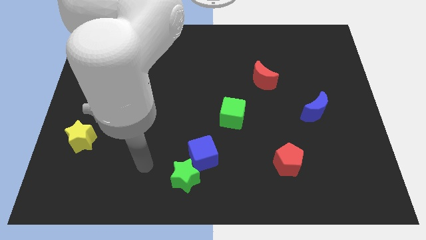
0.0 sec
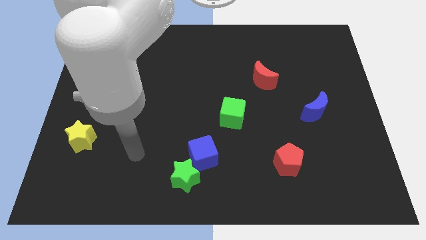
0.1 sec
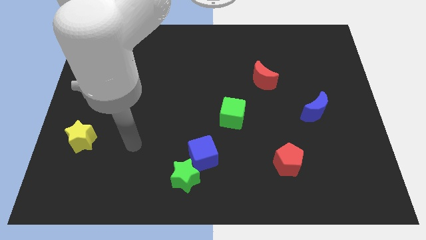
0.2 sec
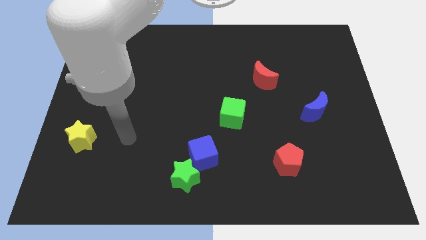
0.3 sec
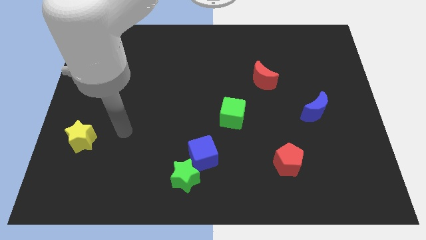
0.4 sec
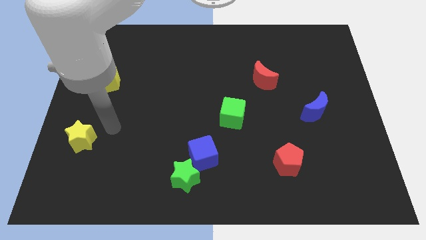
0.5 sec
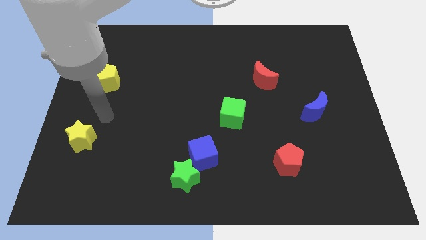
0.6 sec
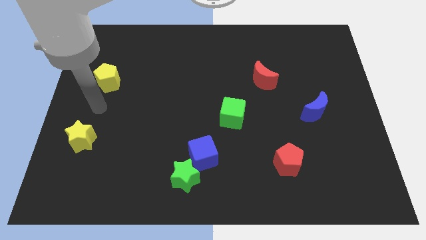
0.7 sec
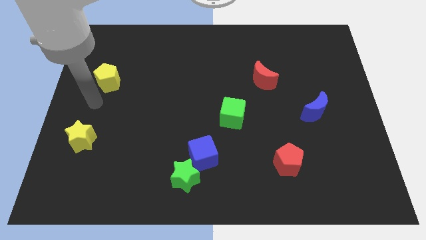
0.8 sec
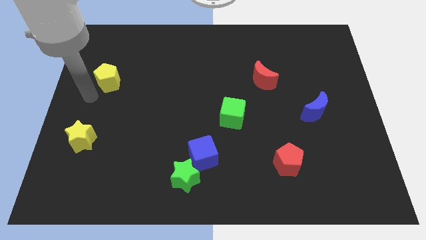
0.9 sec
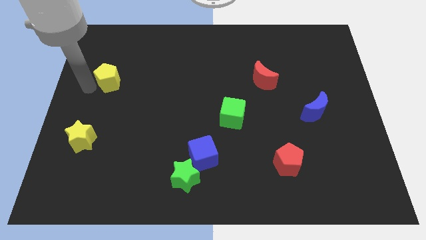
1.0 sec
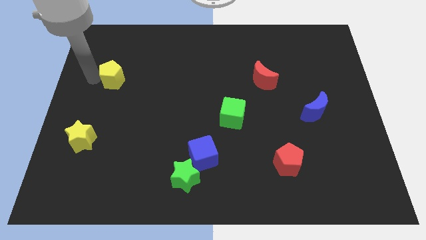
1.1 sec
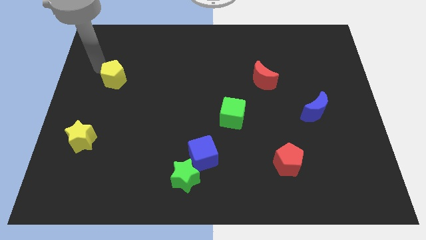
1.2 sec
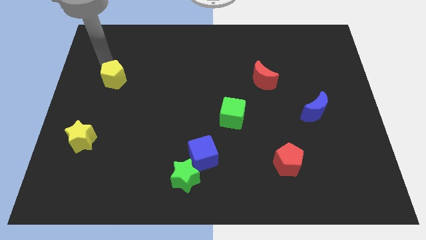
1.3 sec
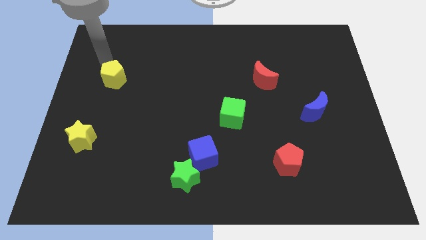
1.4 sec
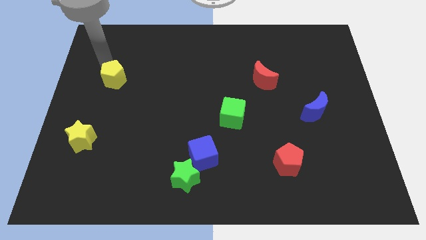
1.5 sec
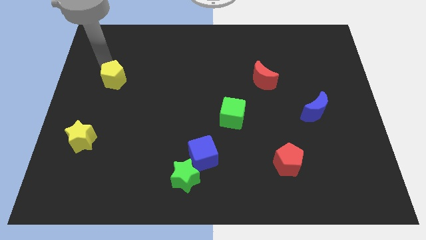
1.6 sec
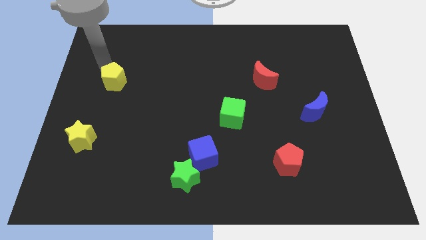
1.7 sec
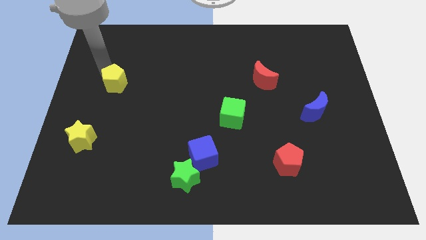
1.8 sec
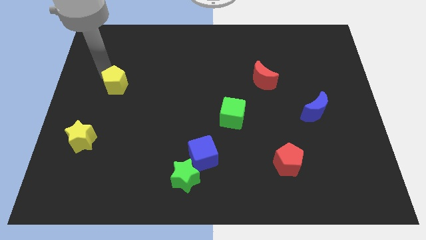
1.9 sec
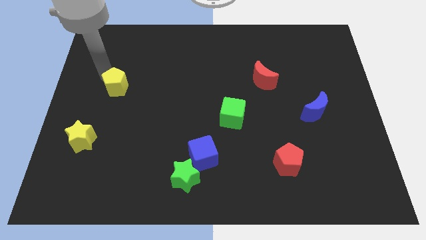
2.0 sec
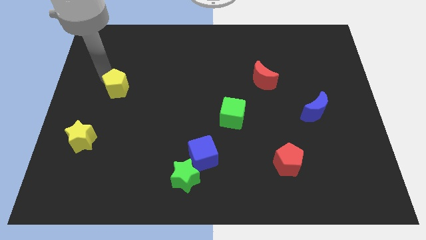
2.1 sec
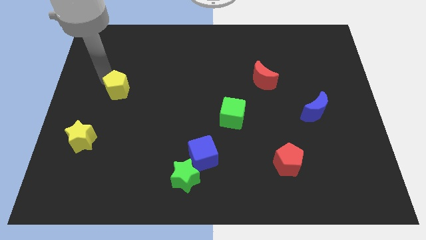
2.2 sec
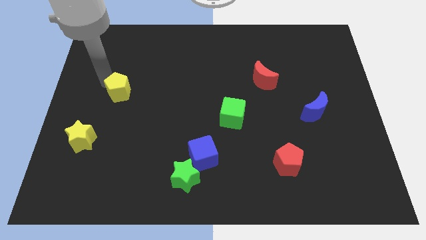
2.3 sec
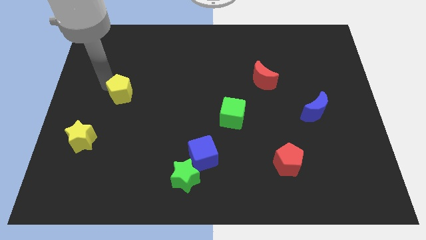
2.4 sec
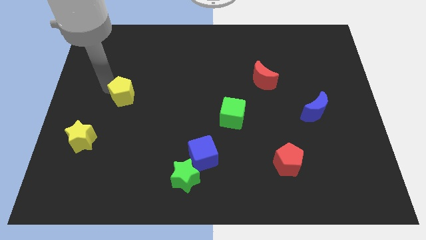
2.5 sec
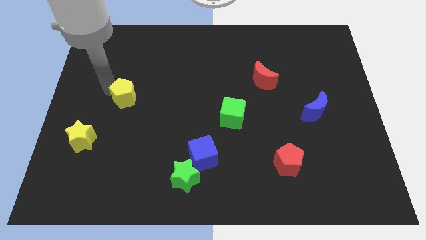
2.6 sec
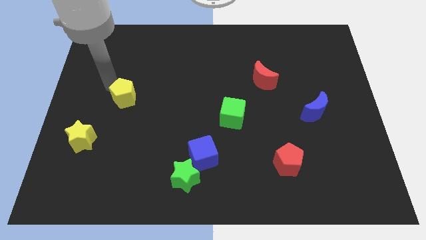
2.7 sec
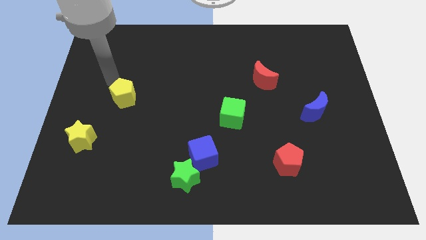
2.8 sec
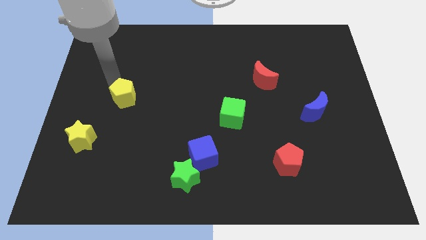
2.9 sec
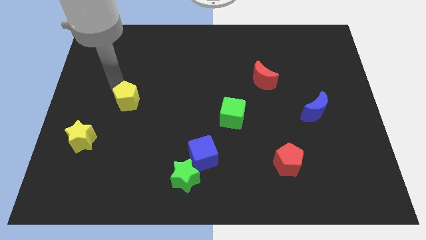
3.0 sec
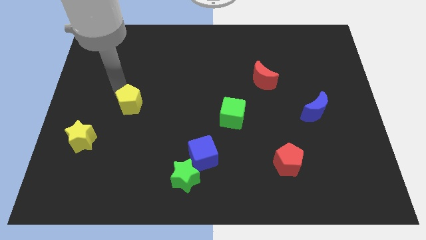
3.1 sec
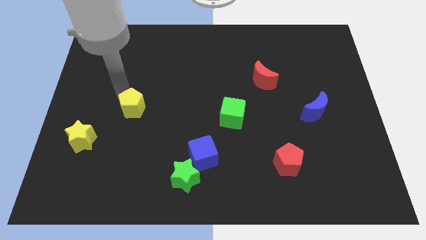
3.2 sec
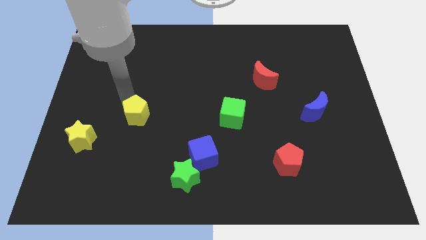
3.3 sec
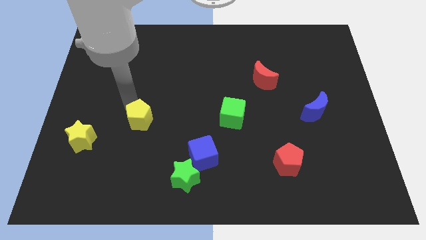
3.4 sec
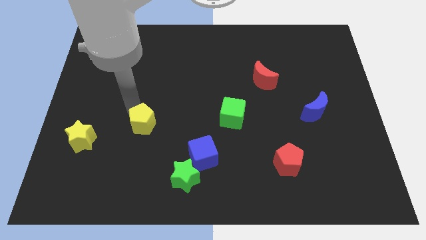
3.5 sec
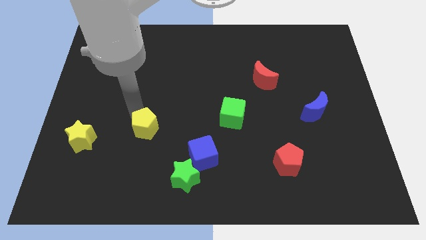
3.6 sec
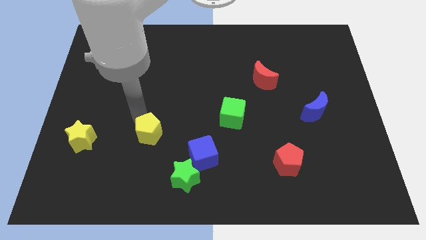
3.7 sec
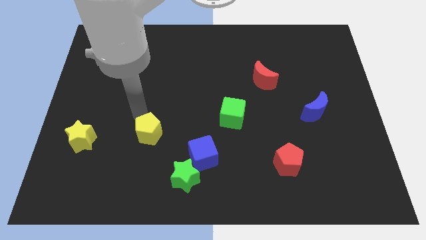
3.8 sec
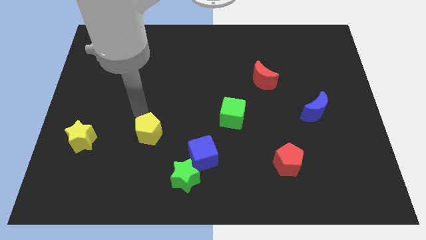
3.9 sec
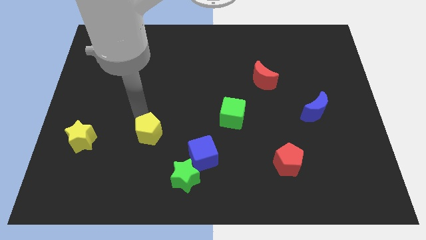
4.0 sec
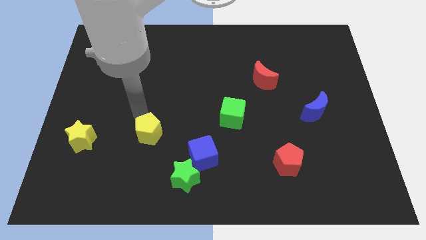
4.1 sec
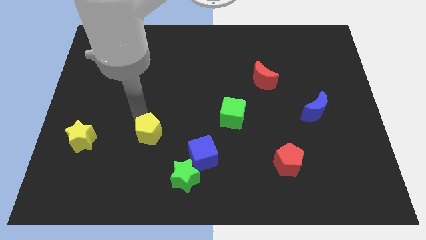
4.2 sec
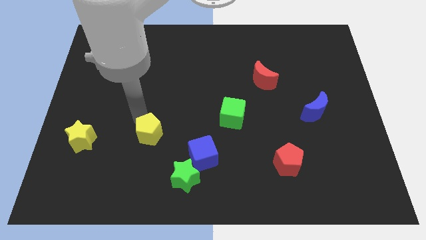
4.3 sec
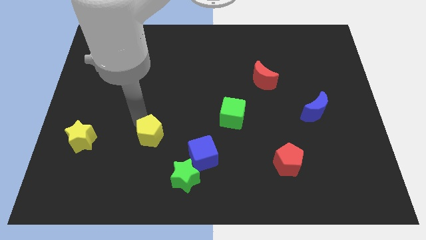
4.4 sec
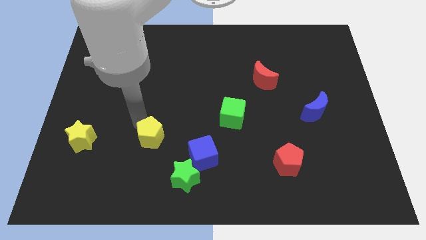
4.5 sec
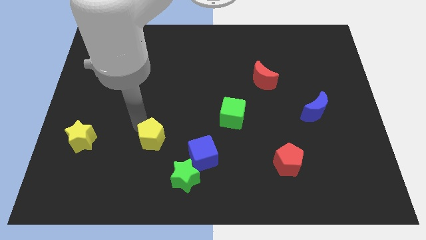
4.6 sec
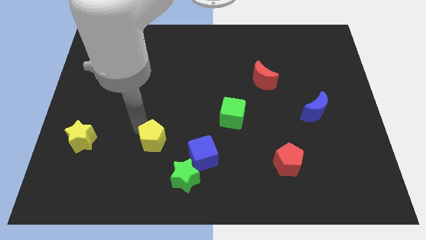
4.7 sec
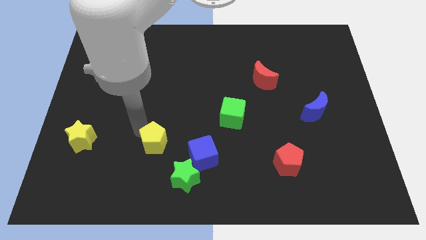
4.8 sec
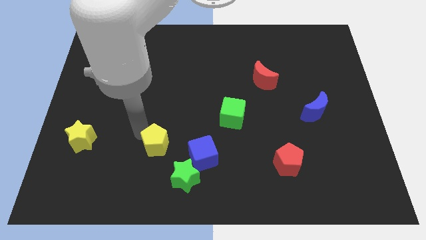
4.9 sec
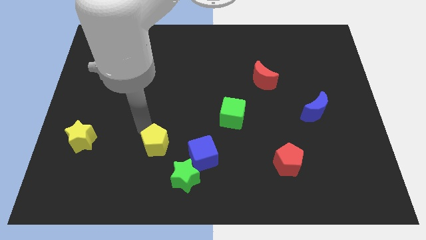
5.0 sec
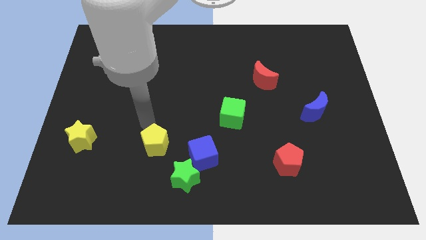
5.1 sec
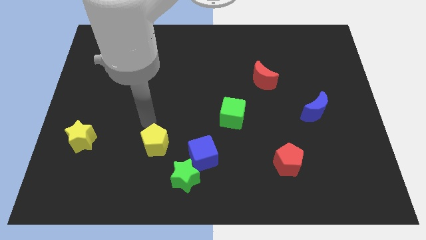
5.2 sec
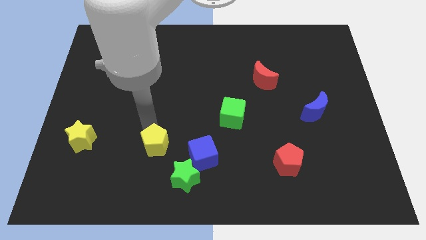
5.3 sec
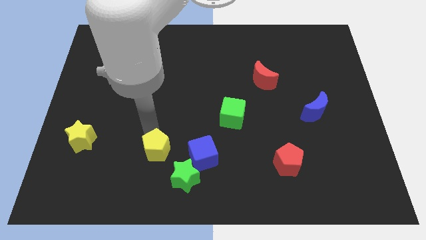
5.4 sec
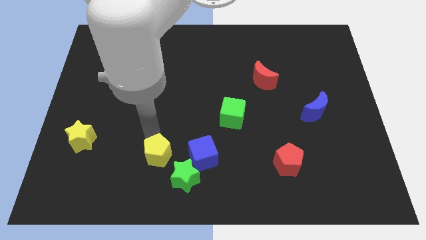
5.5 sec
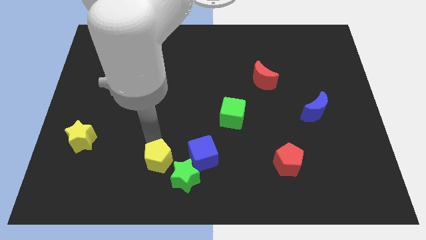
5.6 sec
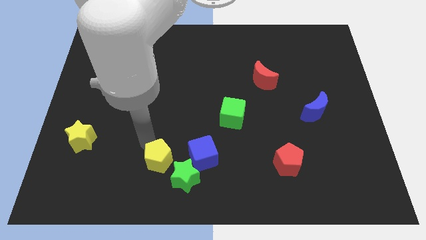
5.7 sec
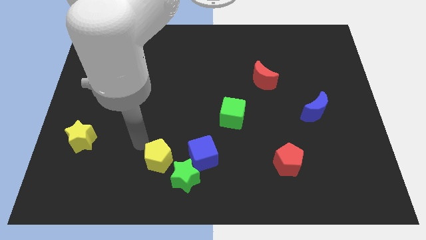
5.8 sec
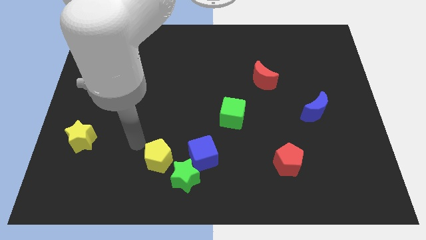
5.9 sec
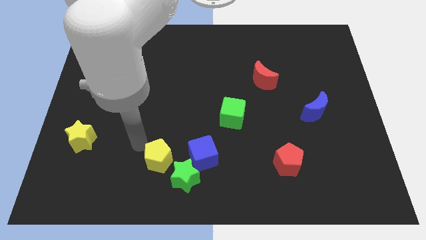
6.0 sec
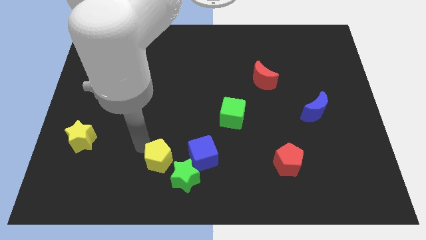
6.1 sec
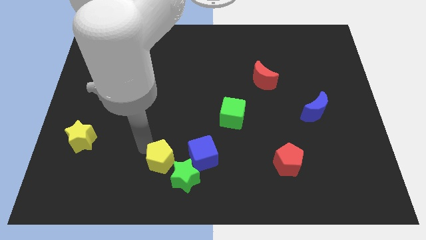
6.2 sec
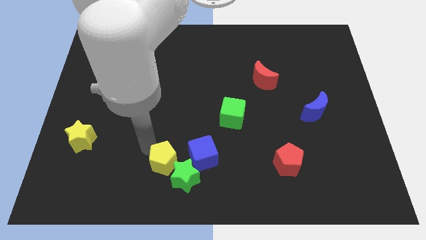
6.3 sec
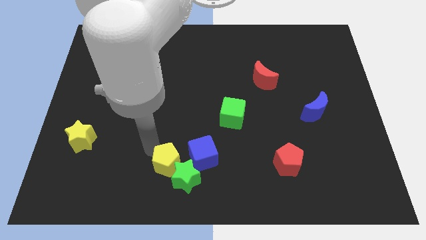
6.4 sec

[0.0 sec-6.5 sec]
push the yellow pentagon towards the green star

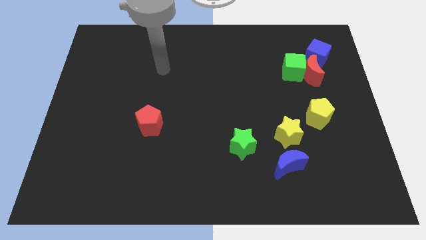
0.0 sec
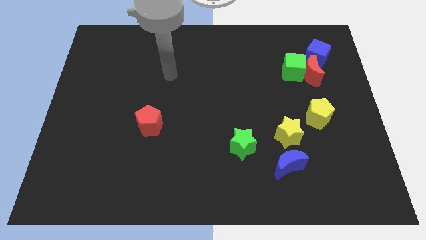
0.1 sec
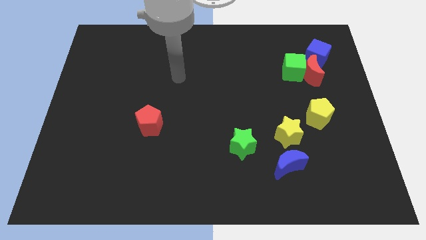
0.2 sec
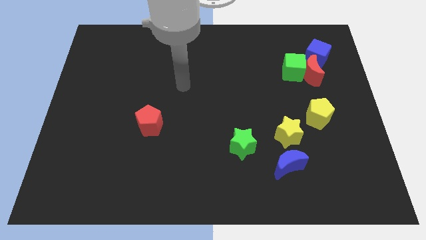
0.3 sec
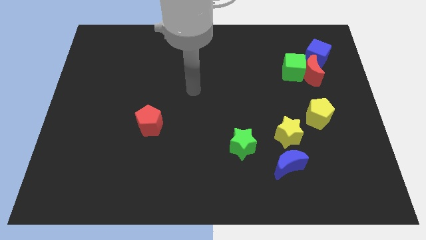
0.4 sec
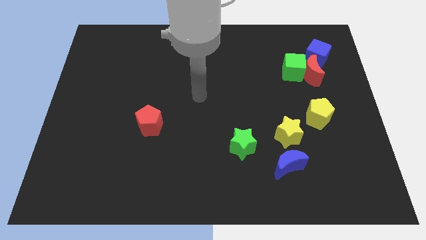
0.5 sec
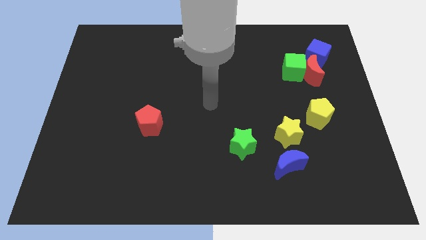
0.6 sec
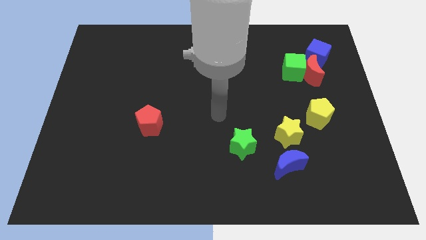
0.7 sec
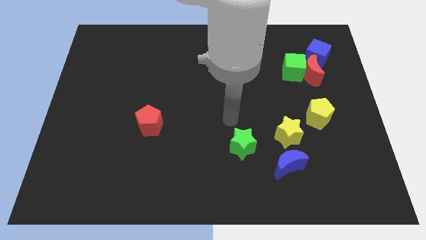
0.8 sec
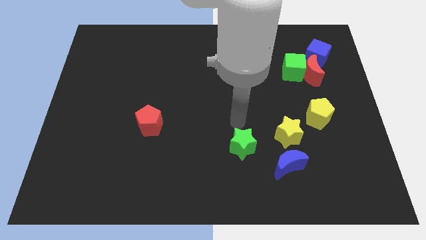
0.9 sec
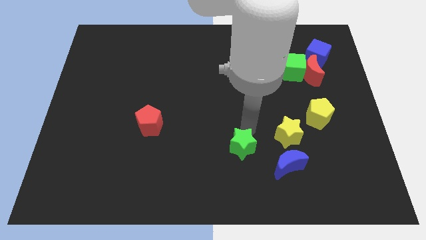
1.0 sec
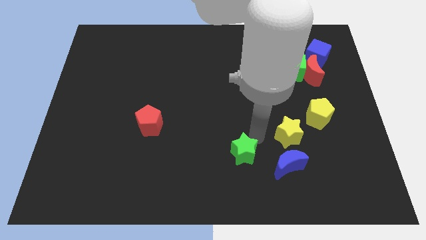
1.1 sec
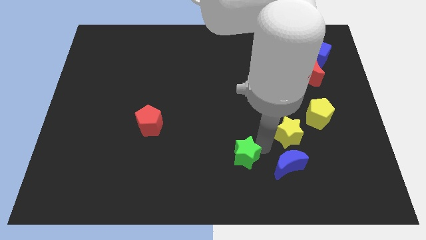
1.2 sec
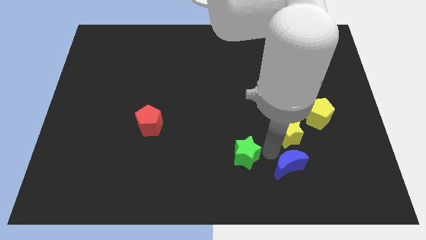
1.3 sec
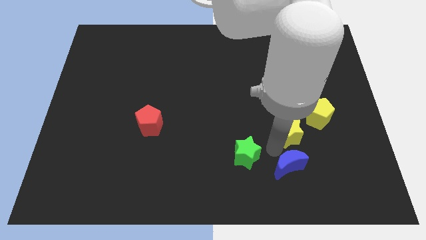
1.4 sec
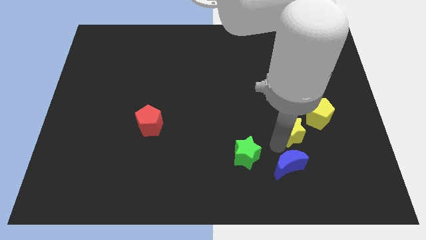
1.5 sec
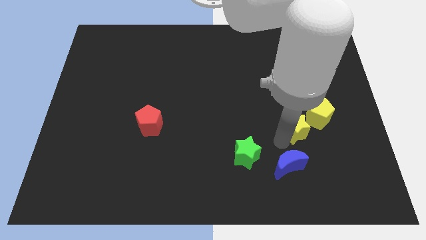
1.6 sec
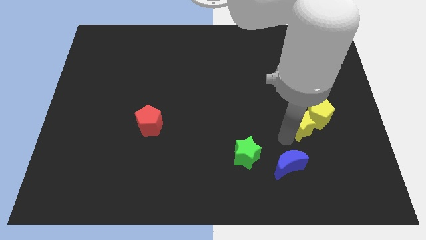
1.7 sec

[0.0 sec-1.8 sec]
put the yellow star next to the yellow pentagon
